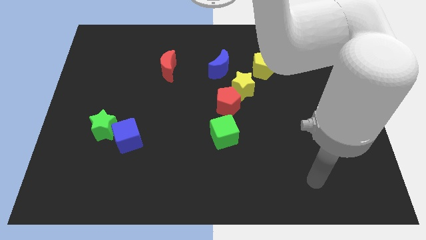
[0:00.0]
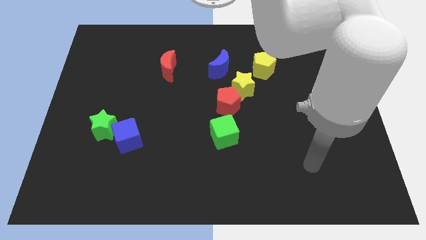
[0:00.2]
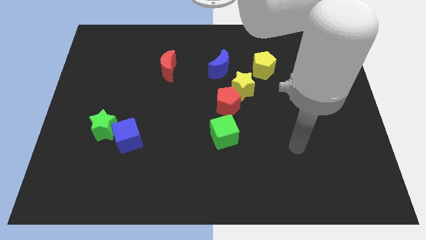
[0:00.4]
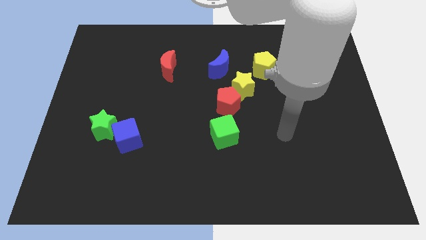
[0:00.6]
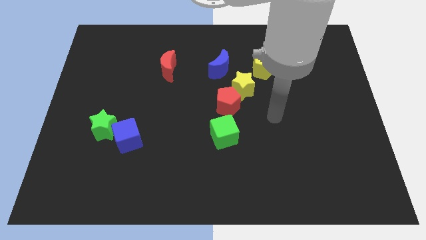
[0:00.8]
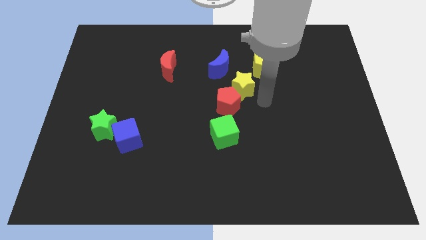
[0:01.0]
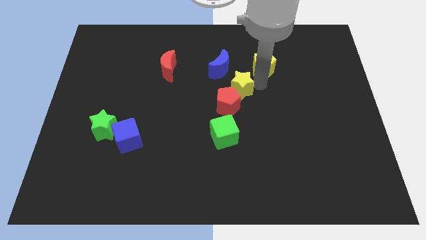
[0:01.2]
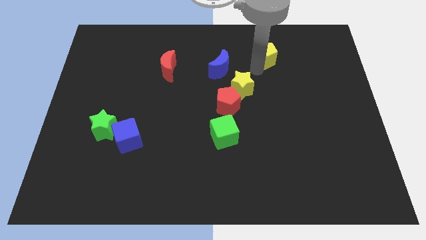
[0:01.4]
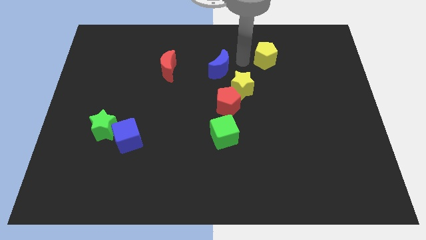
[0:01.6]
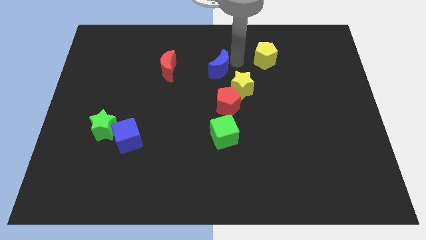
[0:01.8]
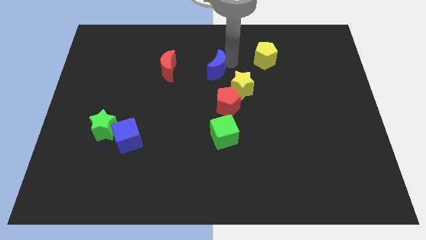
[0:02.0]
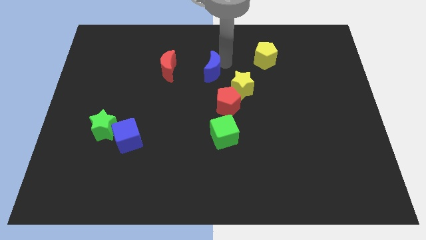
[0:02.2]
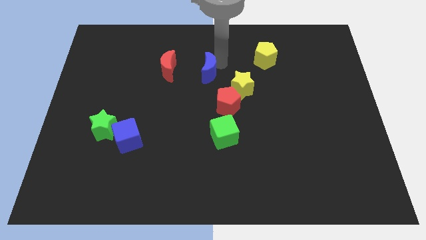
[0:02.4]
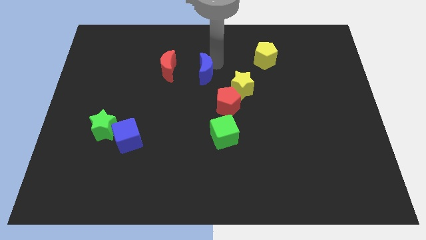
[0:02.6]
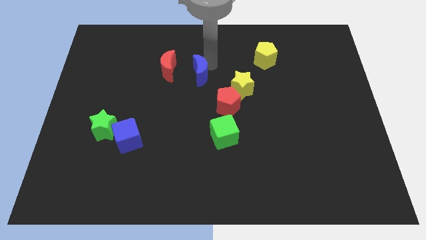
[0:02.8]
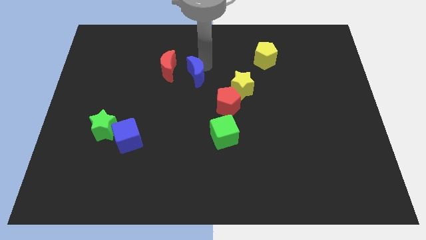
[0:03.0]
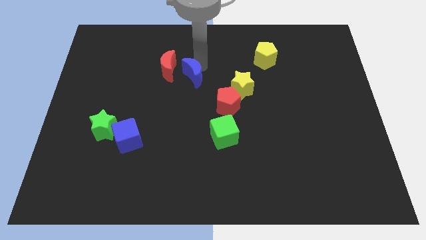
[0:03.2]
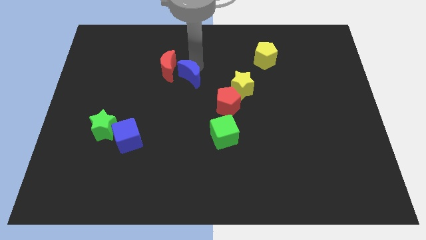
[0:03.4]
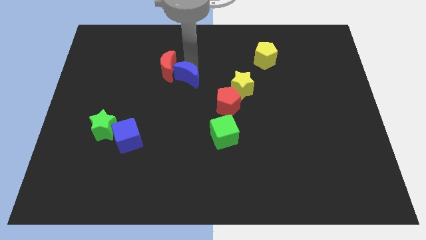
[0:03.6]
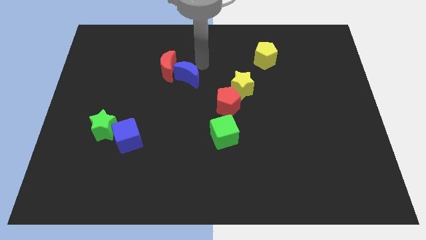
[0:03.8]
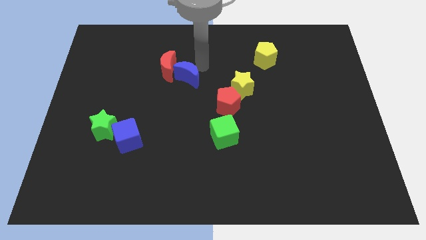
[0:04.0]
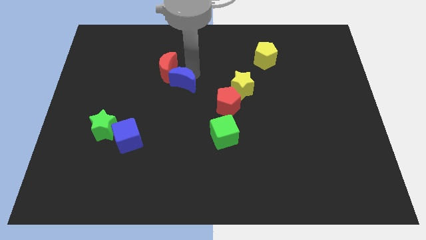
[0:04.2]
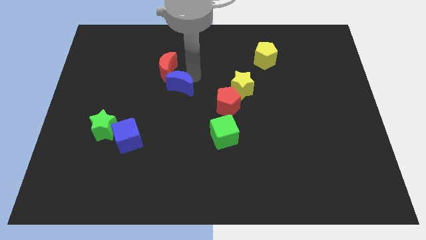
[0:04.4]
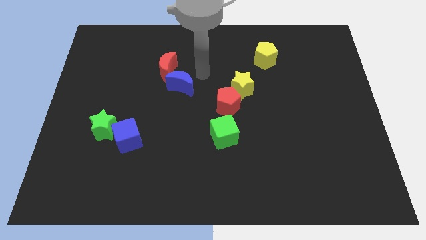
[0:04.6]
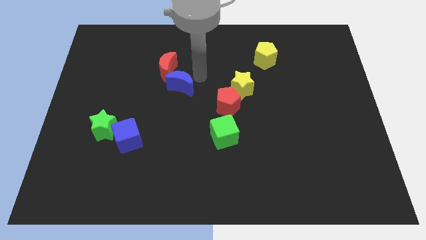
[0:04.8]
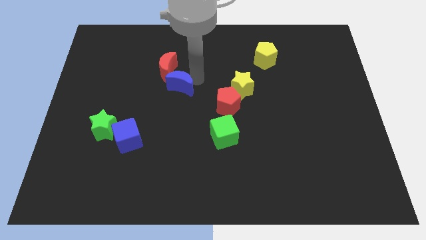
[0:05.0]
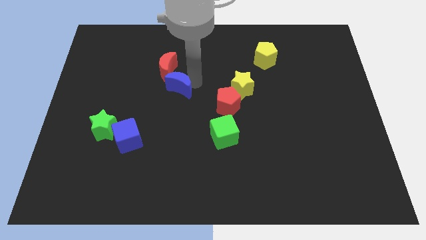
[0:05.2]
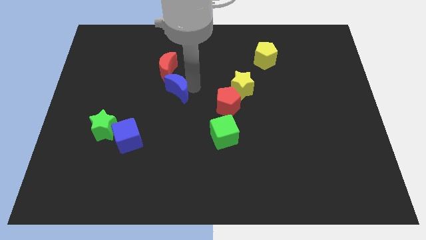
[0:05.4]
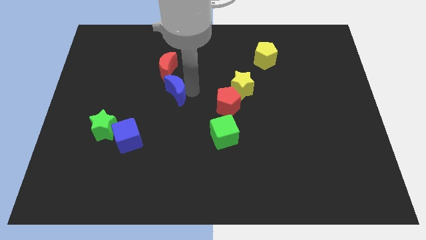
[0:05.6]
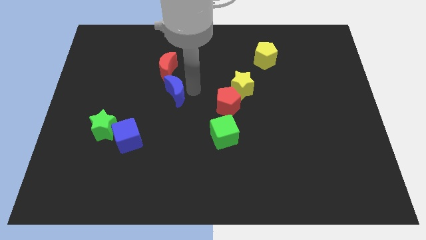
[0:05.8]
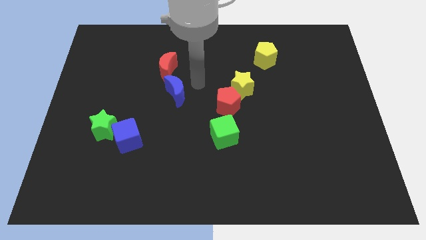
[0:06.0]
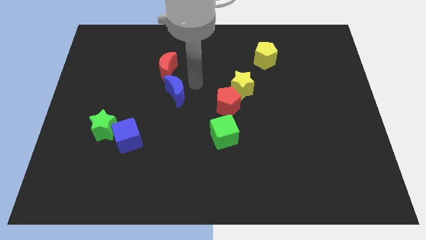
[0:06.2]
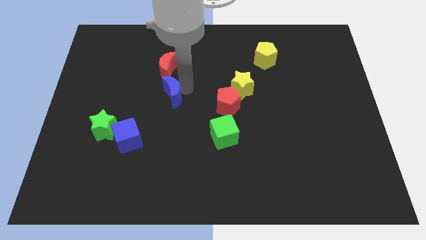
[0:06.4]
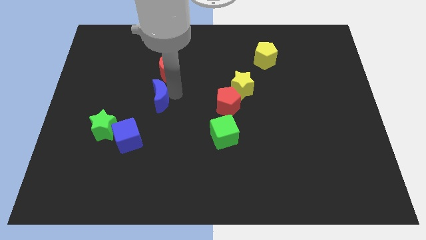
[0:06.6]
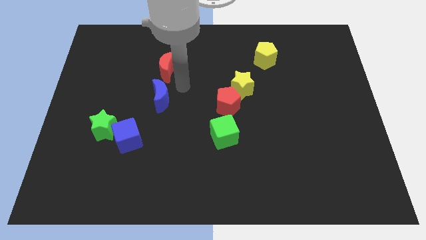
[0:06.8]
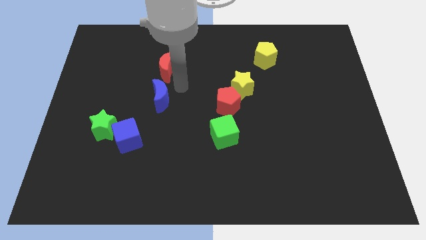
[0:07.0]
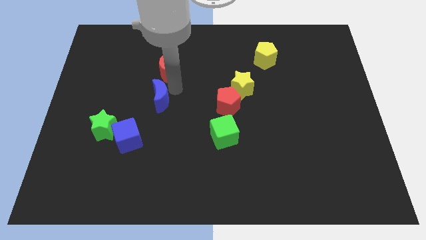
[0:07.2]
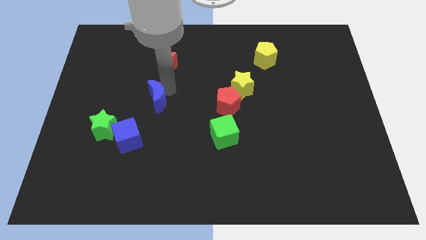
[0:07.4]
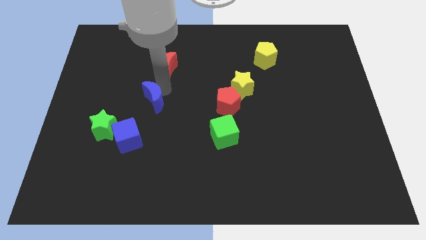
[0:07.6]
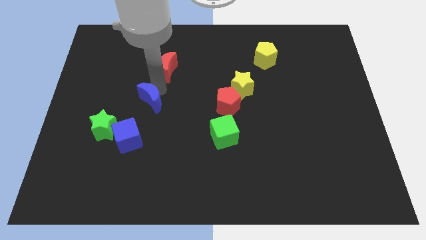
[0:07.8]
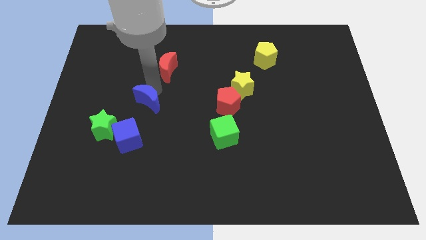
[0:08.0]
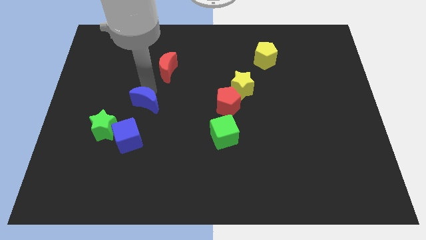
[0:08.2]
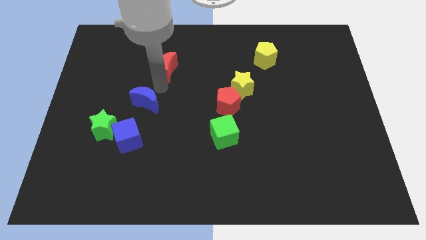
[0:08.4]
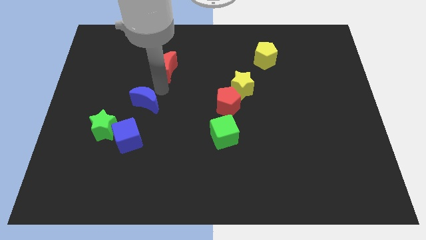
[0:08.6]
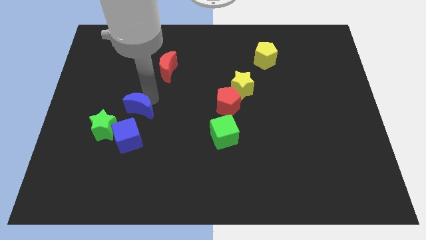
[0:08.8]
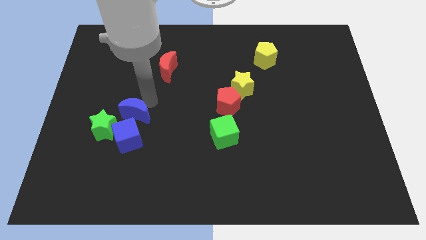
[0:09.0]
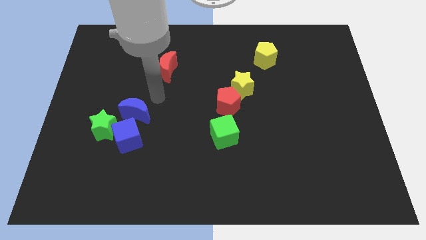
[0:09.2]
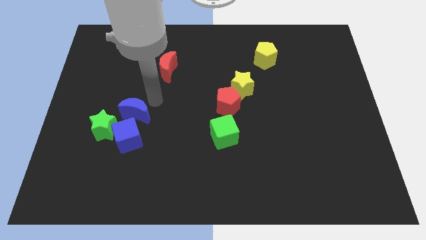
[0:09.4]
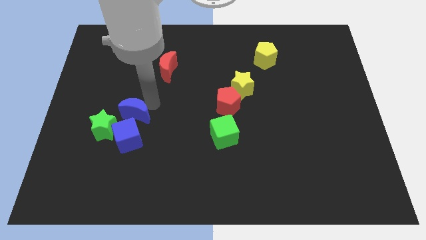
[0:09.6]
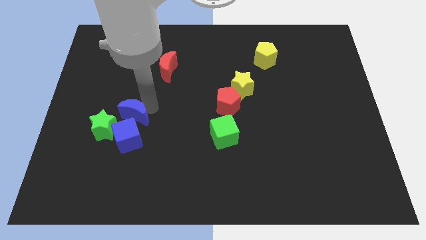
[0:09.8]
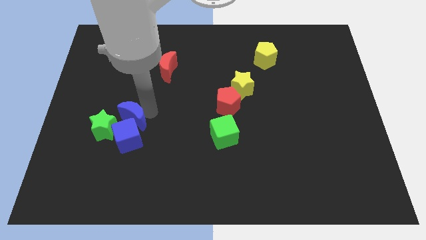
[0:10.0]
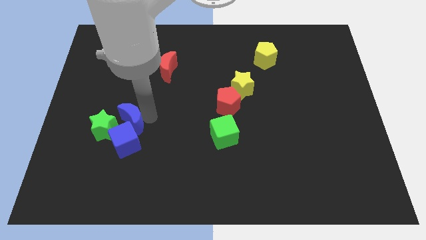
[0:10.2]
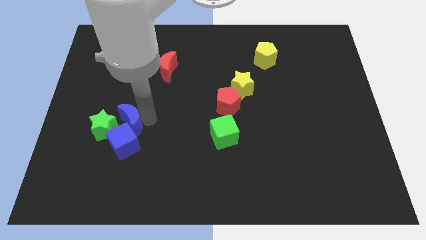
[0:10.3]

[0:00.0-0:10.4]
slide the blue moon to the green star

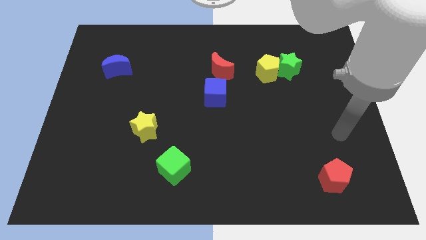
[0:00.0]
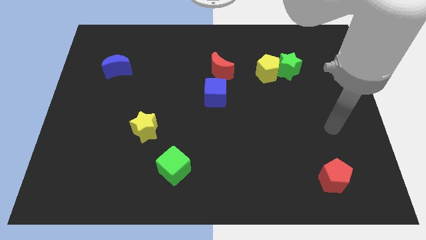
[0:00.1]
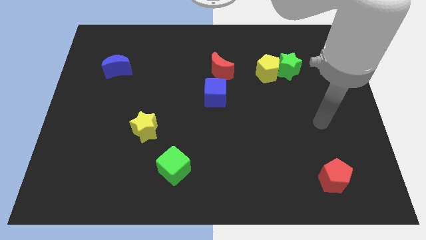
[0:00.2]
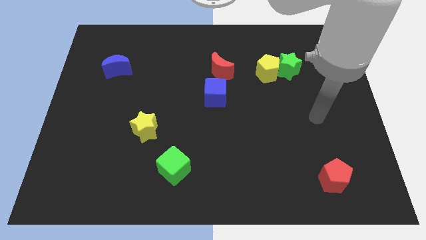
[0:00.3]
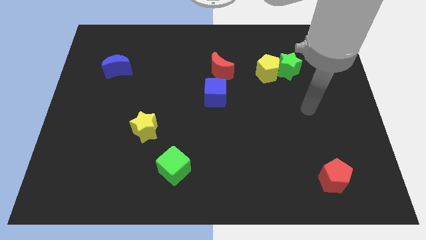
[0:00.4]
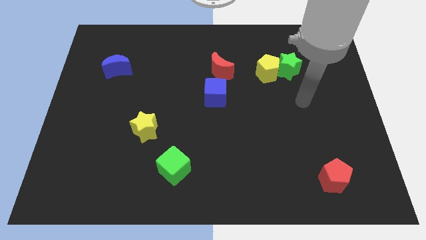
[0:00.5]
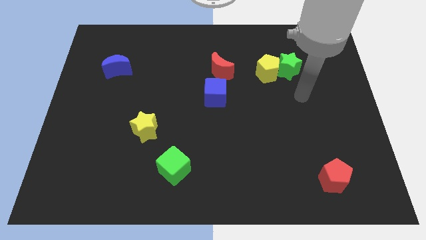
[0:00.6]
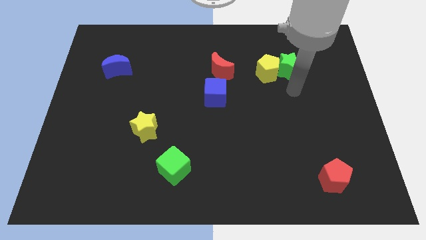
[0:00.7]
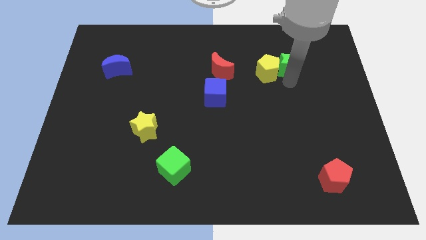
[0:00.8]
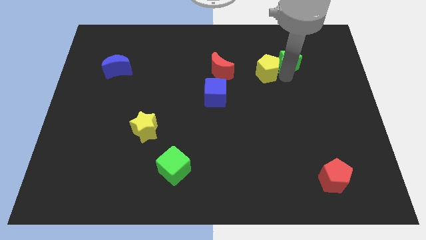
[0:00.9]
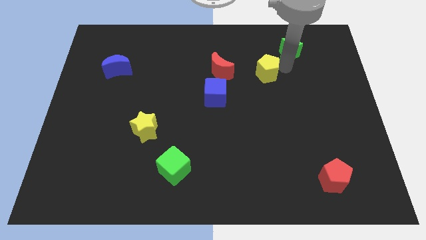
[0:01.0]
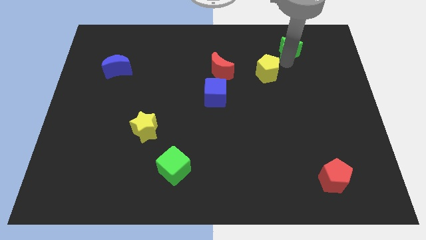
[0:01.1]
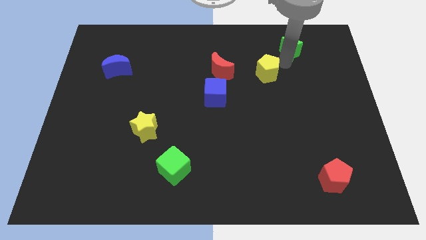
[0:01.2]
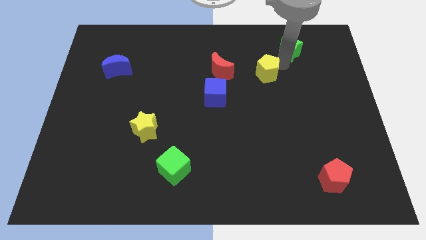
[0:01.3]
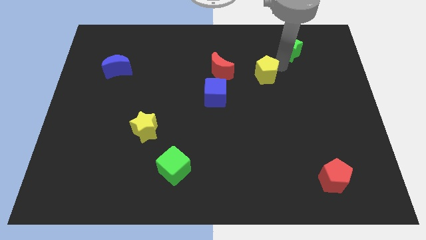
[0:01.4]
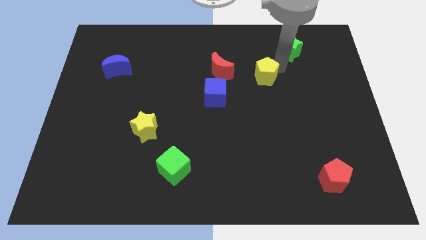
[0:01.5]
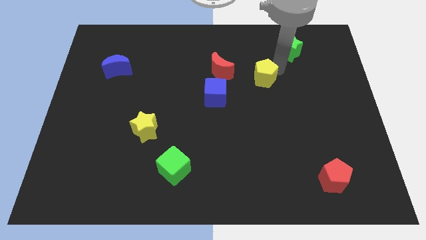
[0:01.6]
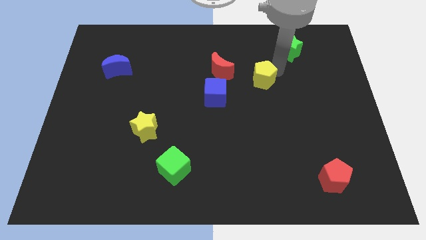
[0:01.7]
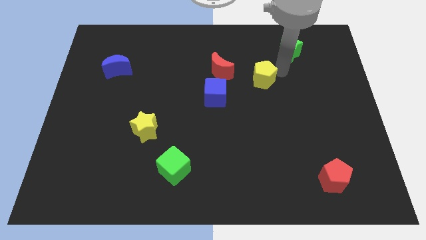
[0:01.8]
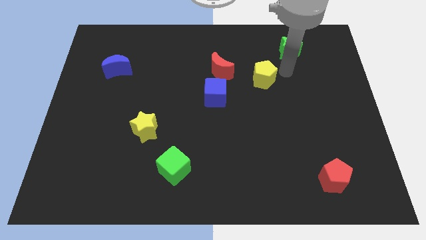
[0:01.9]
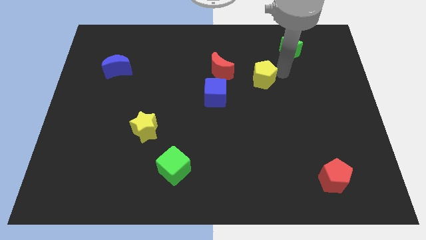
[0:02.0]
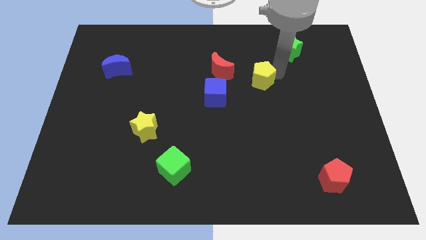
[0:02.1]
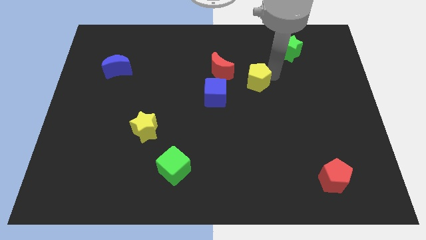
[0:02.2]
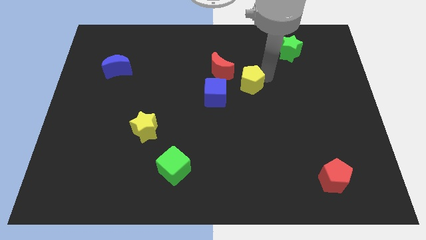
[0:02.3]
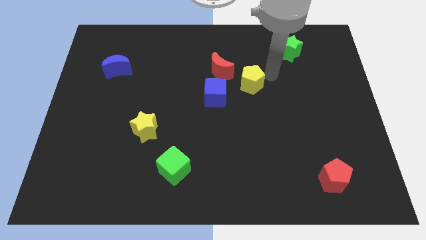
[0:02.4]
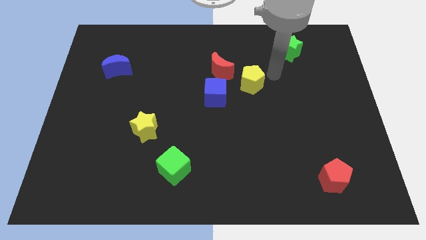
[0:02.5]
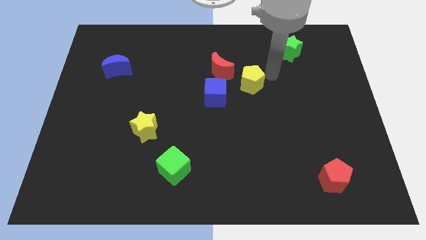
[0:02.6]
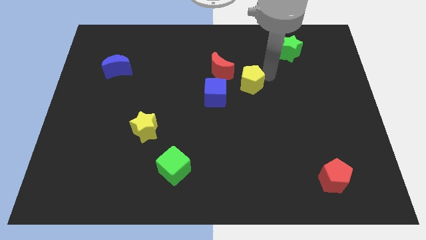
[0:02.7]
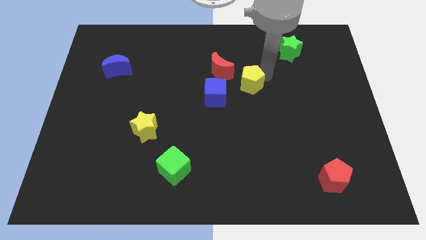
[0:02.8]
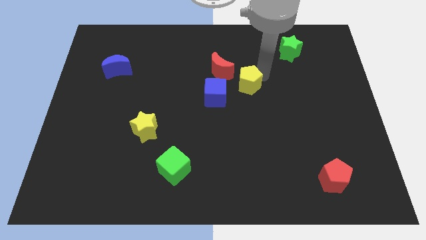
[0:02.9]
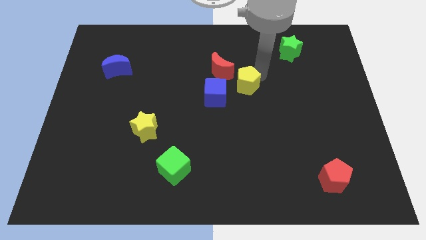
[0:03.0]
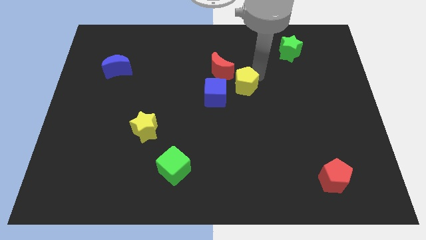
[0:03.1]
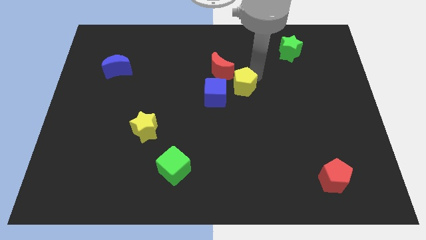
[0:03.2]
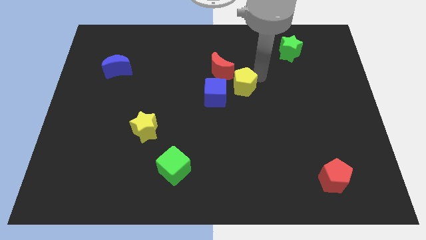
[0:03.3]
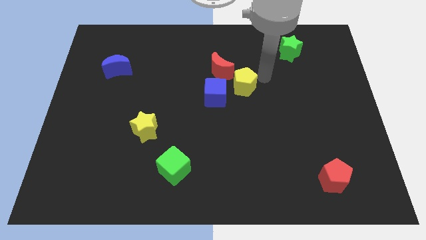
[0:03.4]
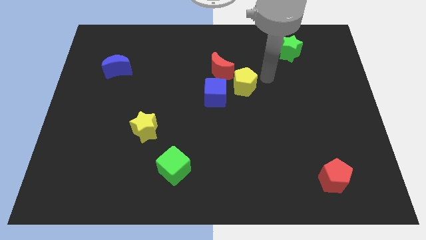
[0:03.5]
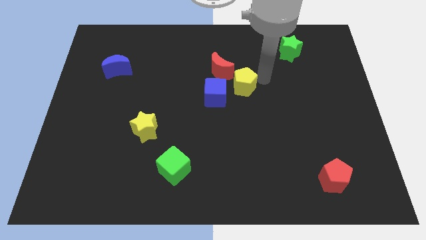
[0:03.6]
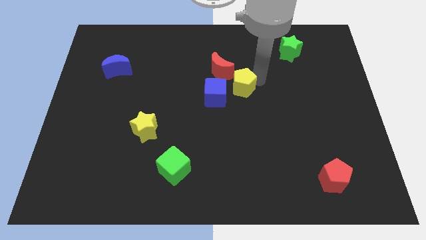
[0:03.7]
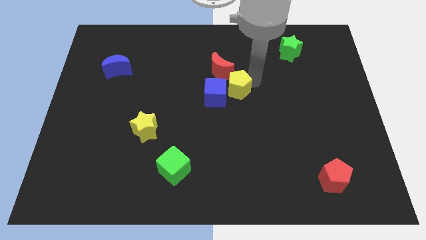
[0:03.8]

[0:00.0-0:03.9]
put the yellow pentagon towards the blue cube
